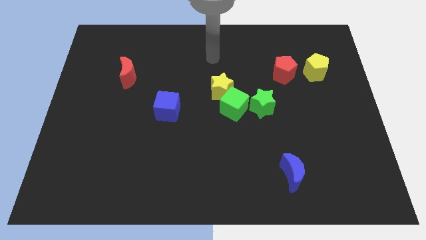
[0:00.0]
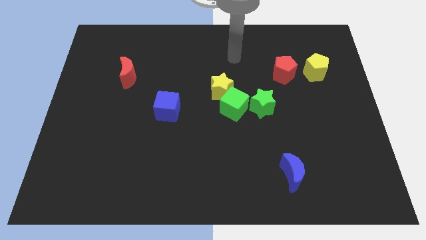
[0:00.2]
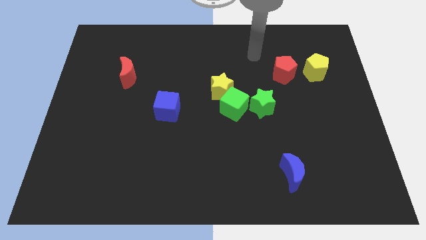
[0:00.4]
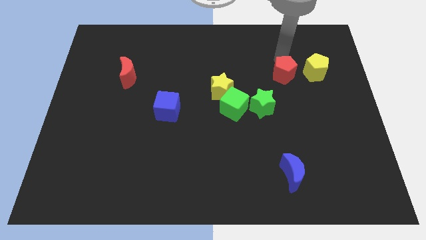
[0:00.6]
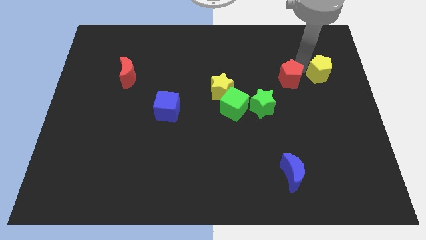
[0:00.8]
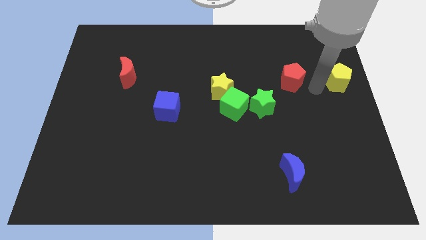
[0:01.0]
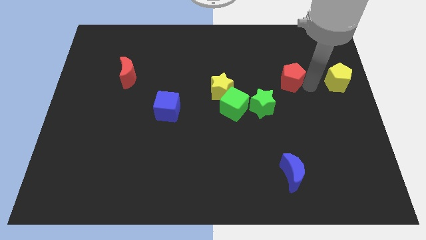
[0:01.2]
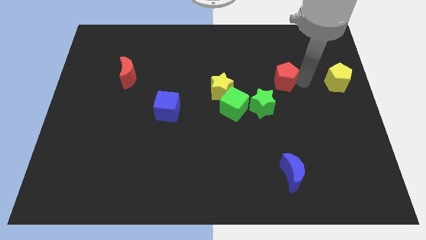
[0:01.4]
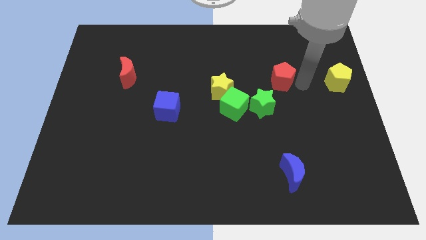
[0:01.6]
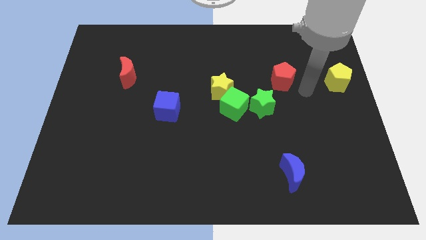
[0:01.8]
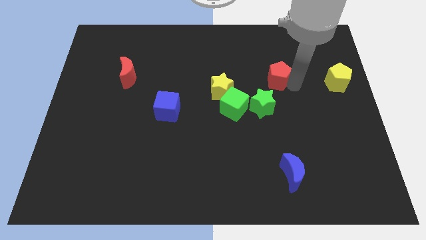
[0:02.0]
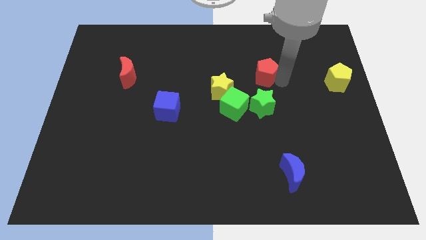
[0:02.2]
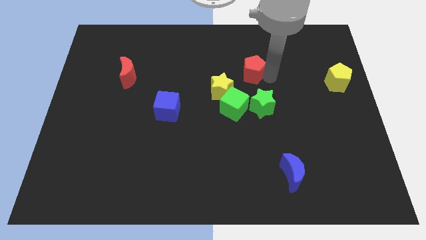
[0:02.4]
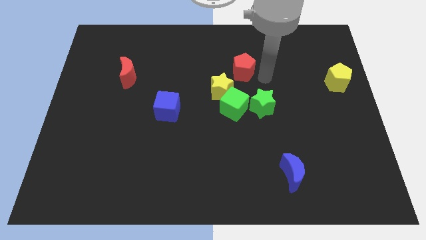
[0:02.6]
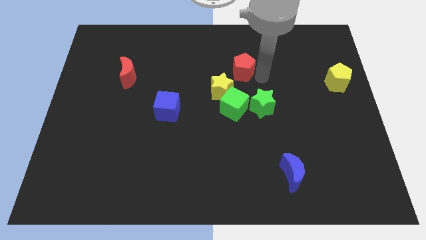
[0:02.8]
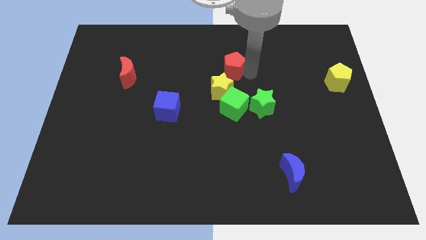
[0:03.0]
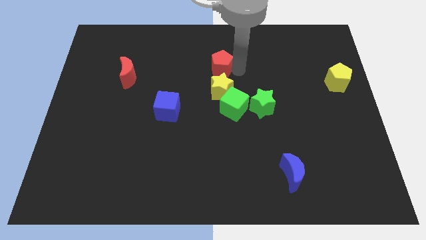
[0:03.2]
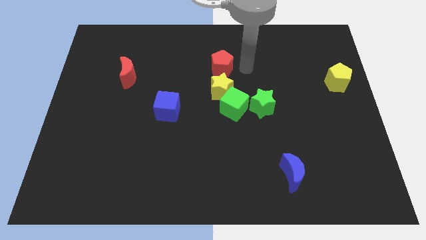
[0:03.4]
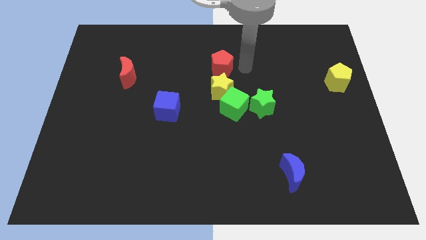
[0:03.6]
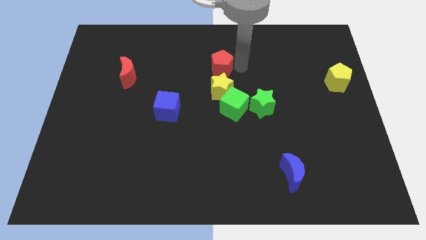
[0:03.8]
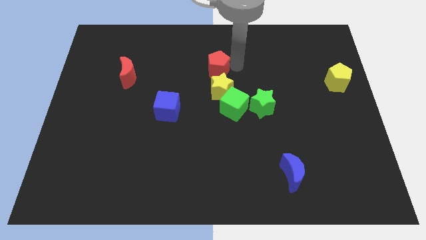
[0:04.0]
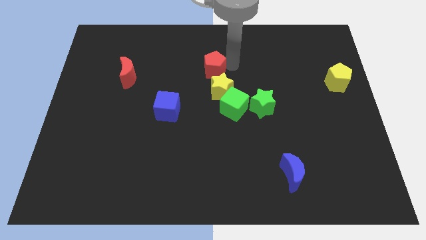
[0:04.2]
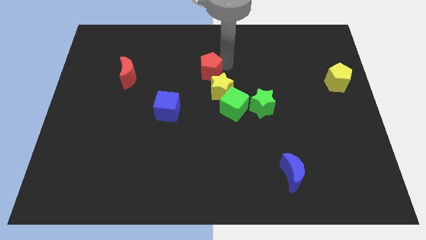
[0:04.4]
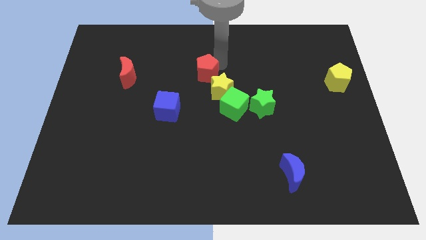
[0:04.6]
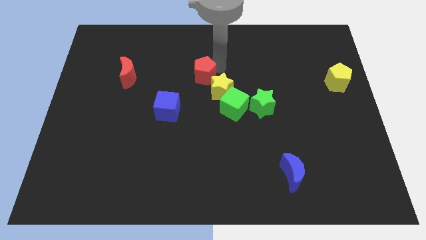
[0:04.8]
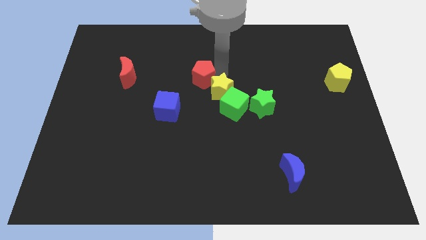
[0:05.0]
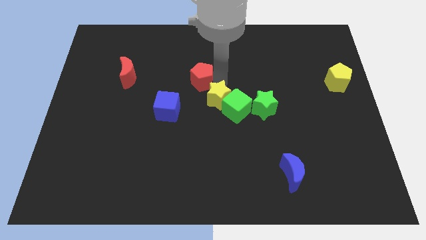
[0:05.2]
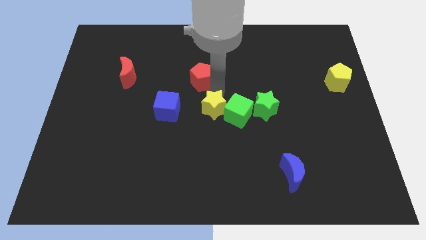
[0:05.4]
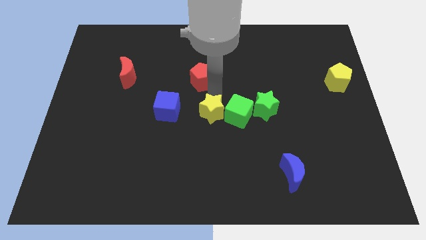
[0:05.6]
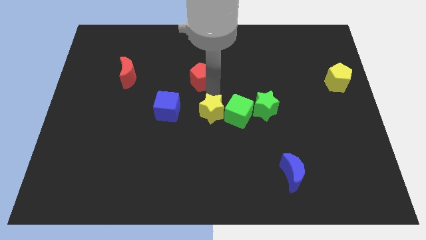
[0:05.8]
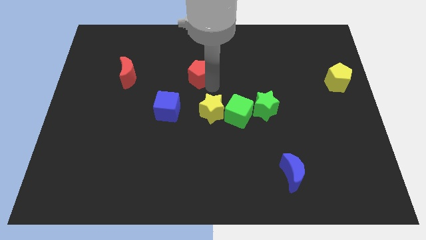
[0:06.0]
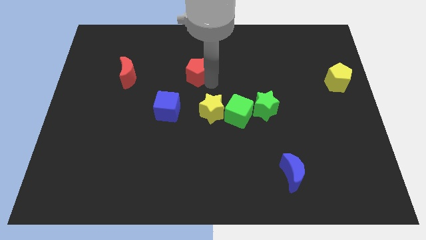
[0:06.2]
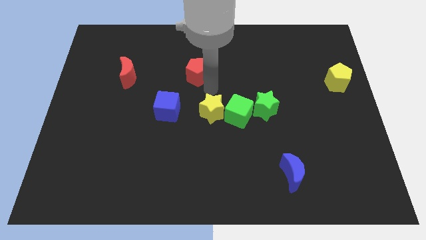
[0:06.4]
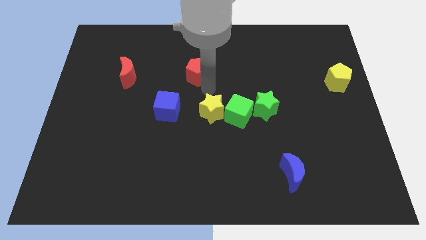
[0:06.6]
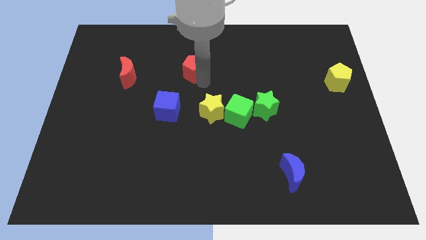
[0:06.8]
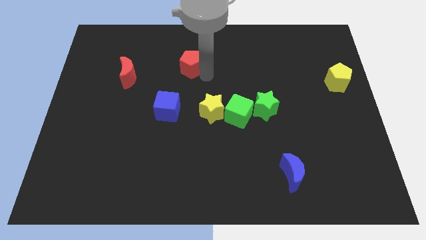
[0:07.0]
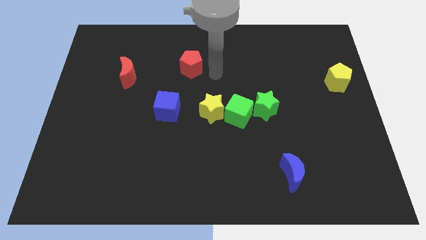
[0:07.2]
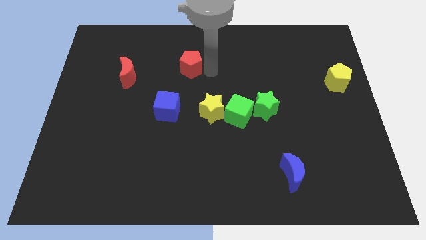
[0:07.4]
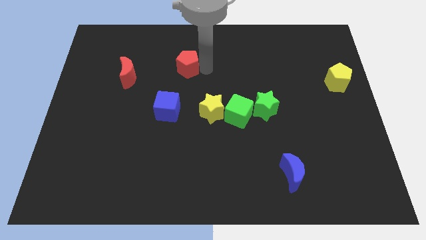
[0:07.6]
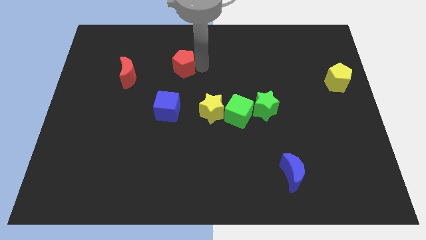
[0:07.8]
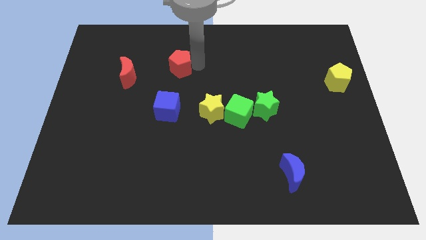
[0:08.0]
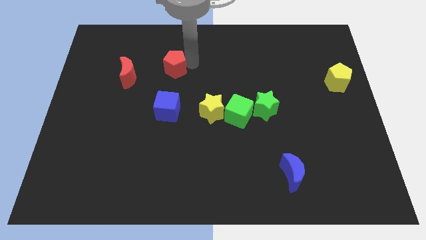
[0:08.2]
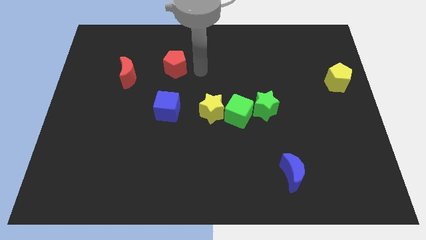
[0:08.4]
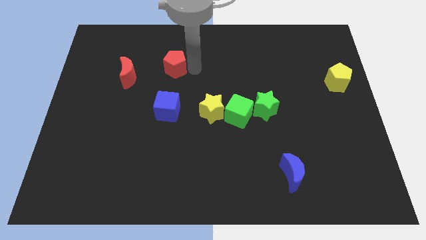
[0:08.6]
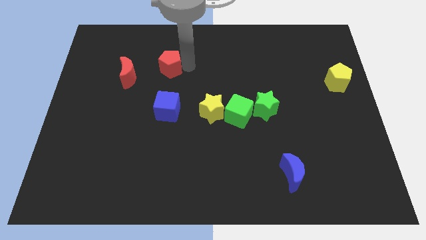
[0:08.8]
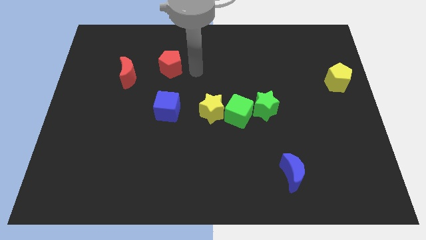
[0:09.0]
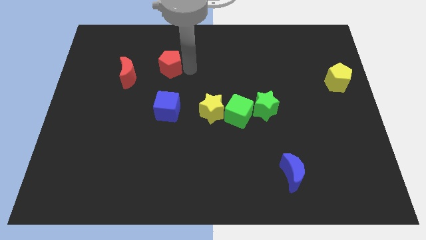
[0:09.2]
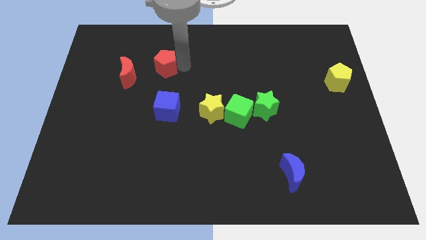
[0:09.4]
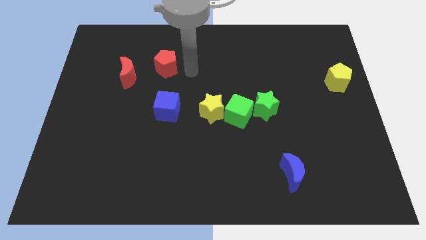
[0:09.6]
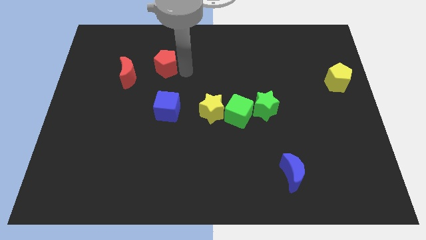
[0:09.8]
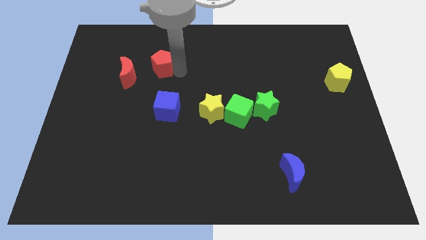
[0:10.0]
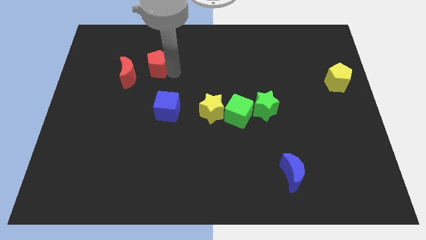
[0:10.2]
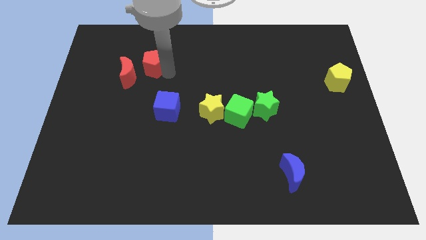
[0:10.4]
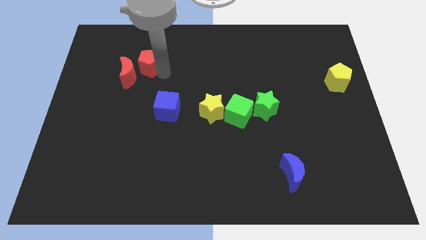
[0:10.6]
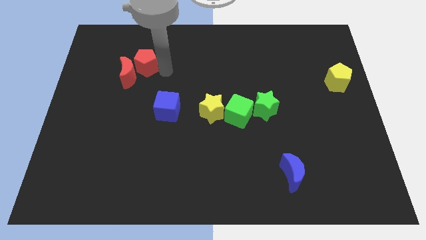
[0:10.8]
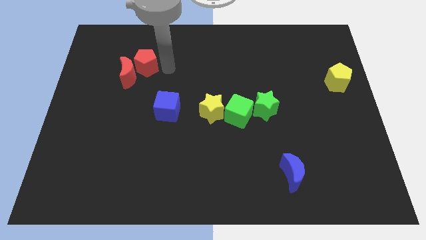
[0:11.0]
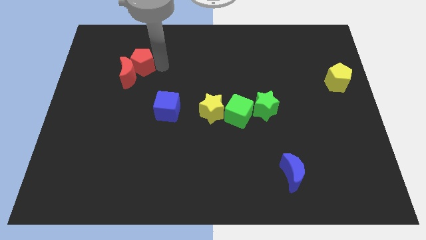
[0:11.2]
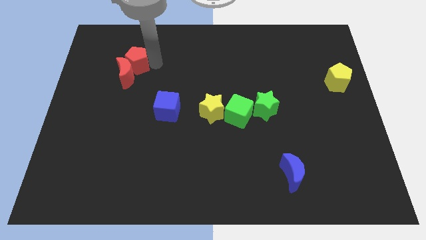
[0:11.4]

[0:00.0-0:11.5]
slide the red pentagon to the top left side of the red moon

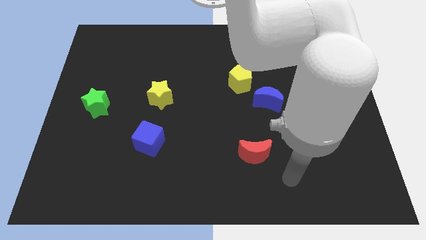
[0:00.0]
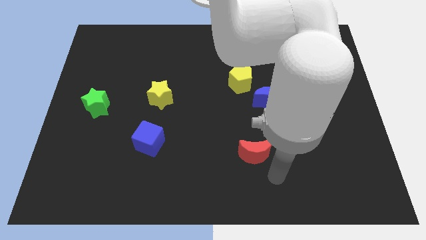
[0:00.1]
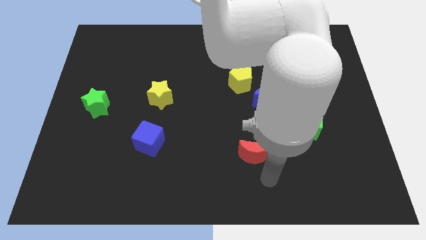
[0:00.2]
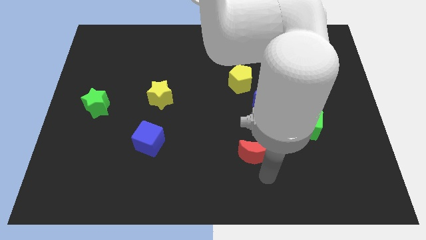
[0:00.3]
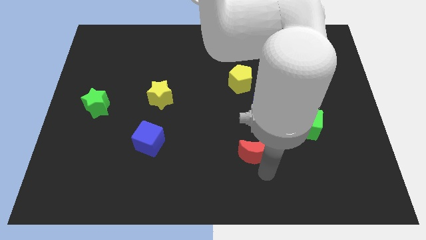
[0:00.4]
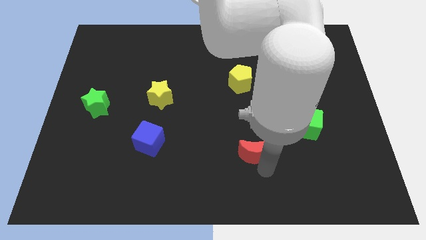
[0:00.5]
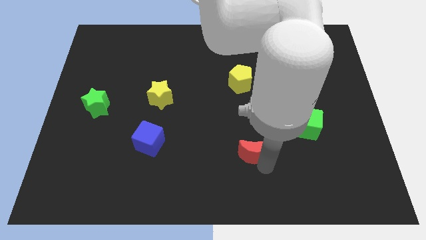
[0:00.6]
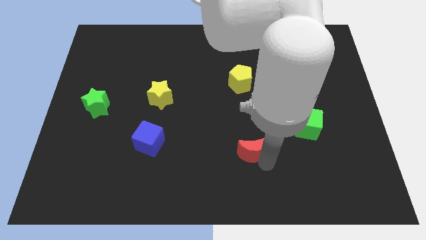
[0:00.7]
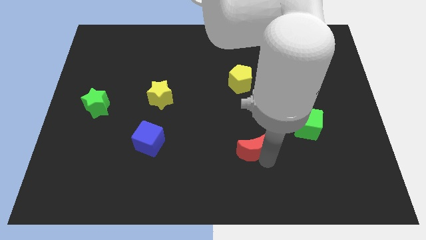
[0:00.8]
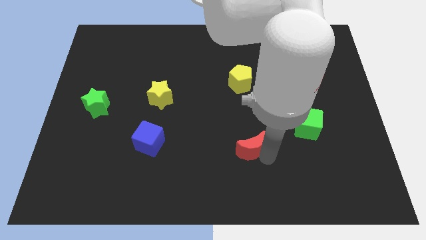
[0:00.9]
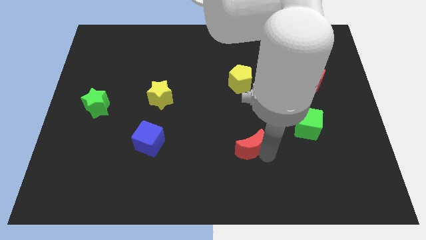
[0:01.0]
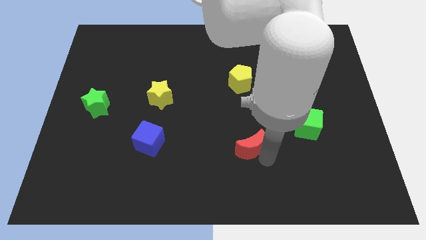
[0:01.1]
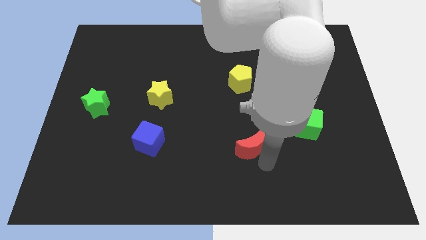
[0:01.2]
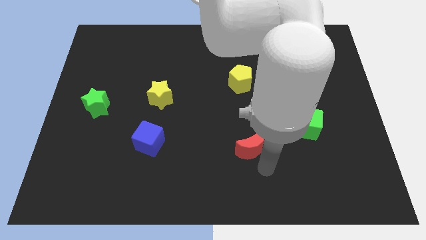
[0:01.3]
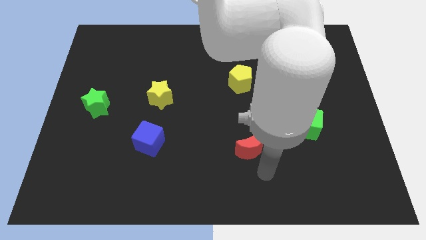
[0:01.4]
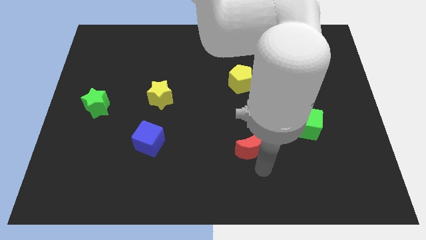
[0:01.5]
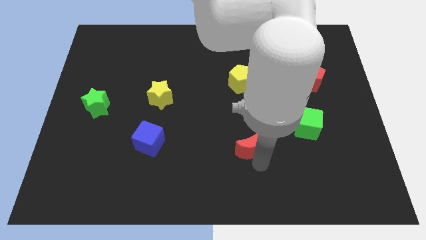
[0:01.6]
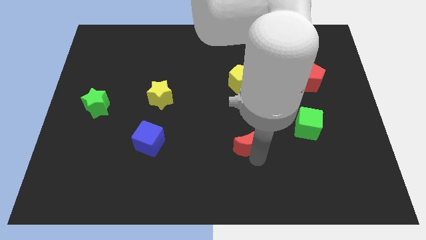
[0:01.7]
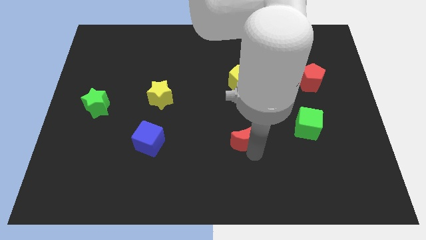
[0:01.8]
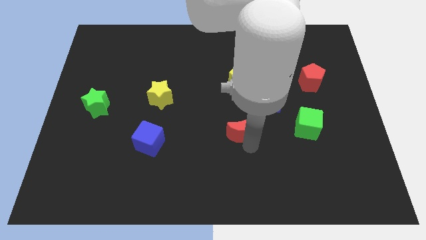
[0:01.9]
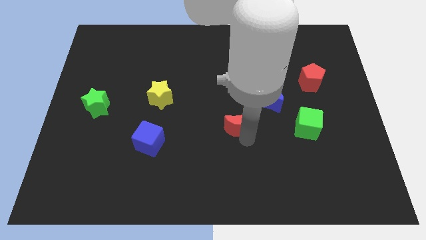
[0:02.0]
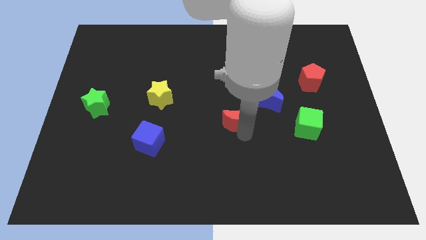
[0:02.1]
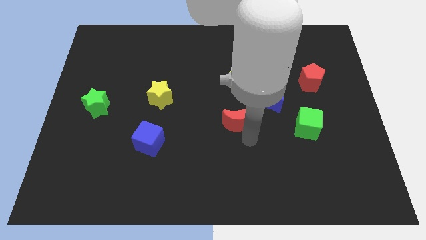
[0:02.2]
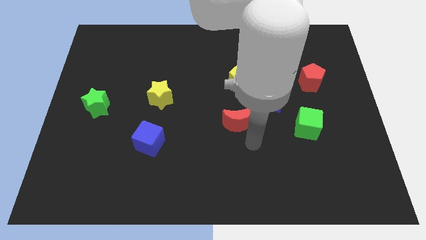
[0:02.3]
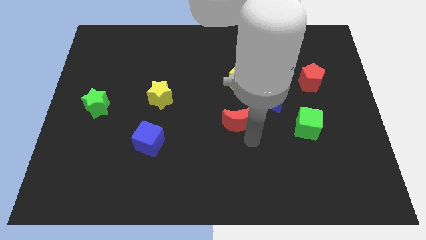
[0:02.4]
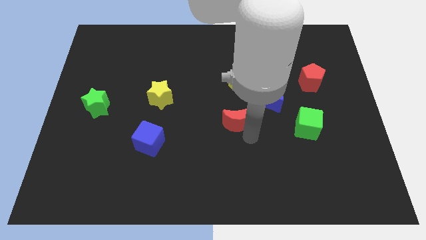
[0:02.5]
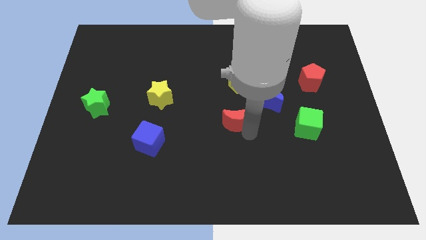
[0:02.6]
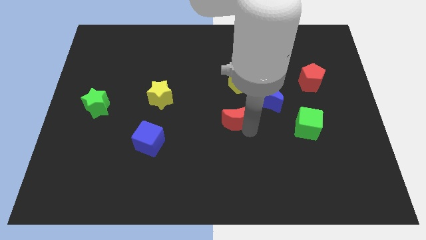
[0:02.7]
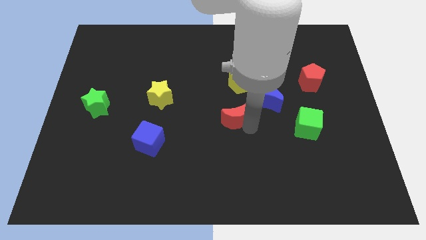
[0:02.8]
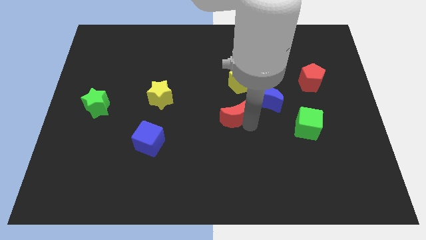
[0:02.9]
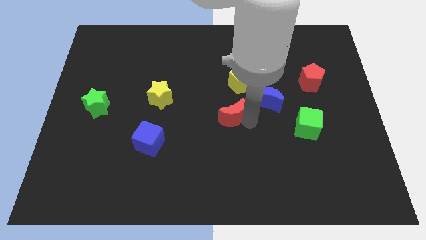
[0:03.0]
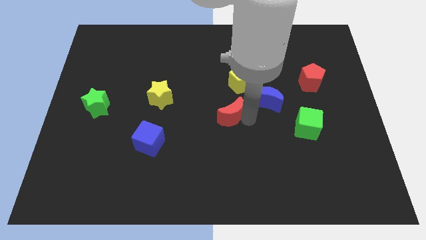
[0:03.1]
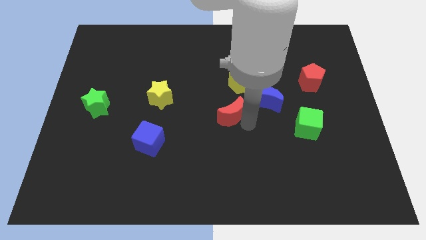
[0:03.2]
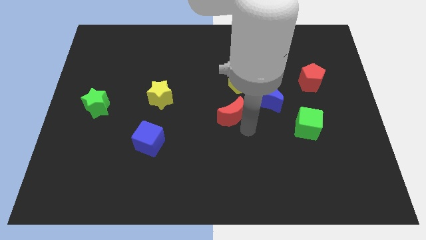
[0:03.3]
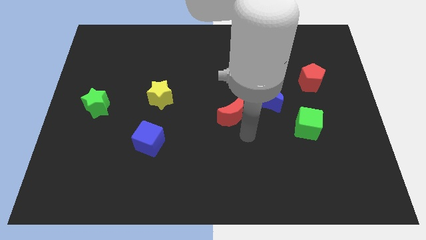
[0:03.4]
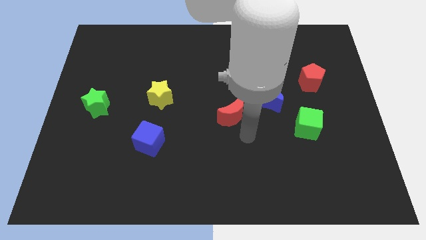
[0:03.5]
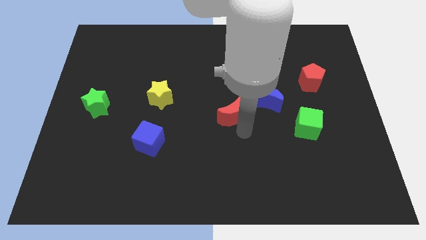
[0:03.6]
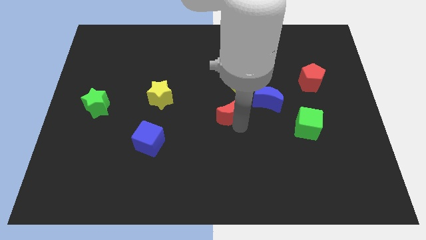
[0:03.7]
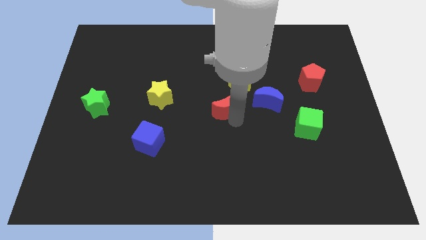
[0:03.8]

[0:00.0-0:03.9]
move the red moon to the bottom left of the yellow pentagon
